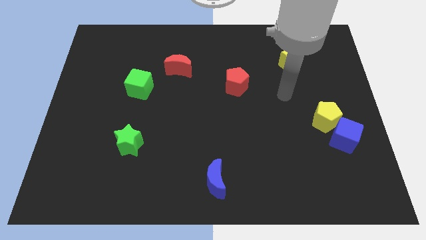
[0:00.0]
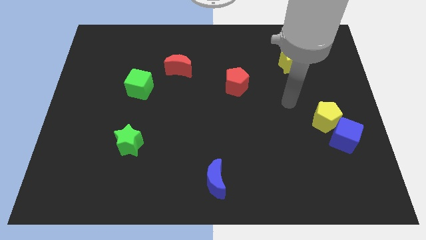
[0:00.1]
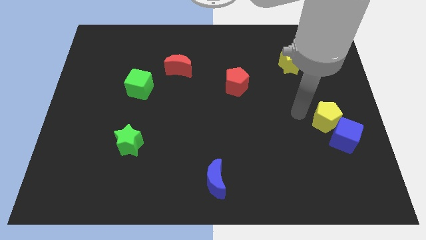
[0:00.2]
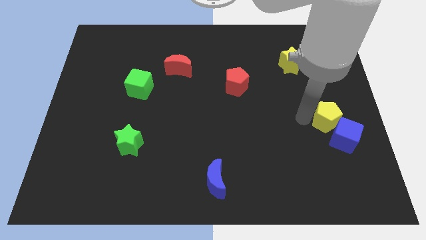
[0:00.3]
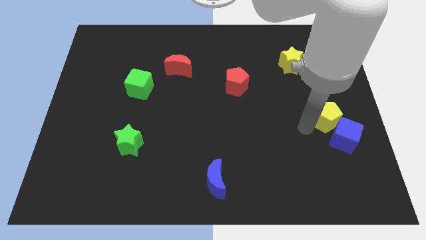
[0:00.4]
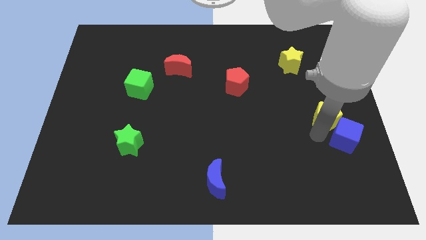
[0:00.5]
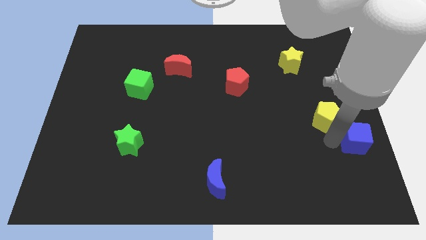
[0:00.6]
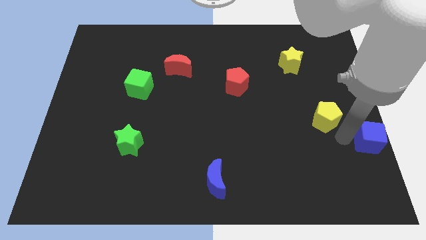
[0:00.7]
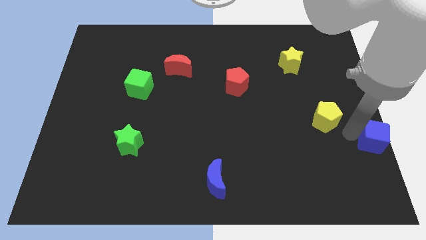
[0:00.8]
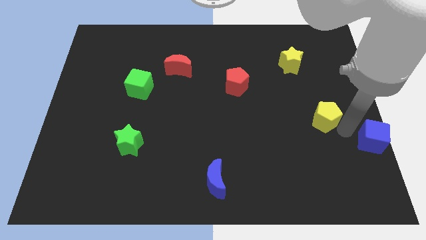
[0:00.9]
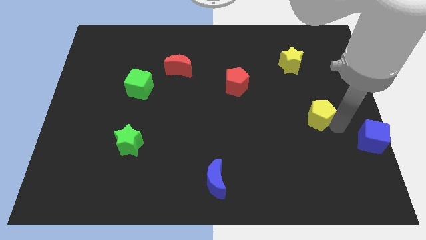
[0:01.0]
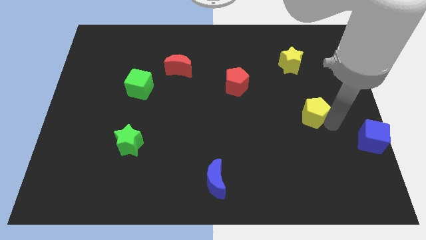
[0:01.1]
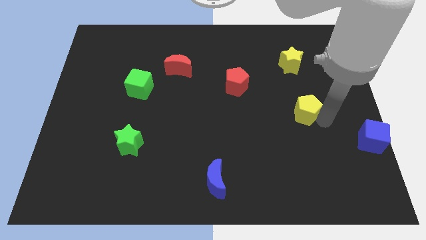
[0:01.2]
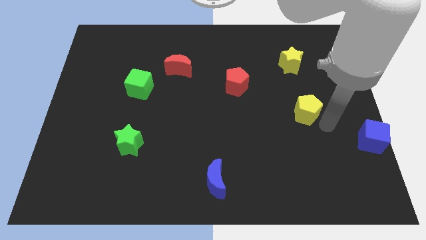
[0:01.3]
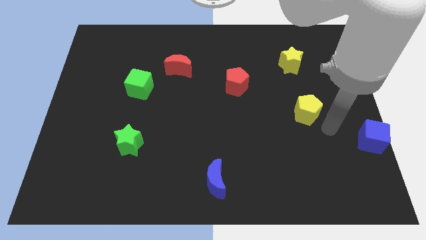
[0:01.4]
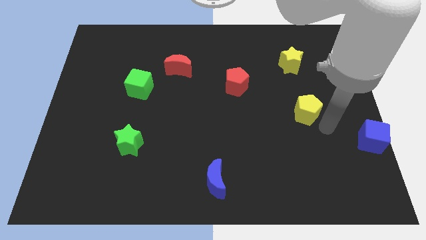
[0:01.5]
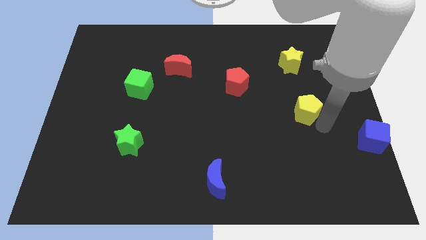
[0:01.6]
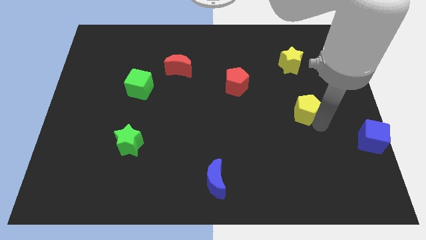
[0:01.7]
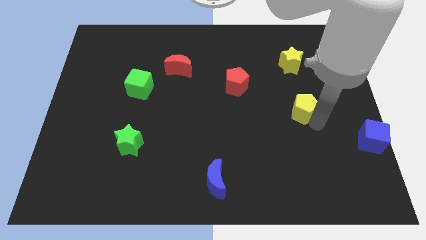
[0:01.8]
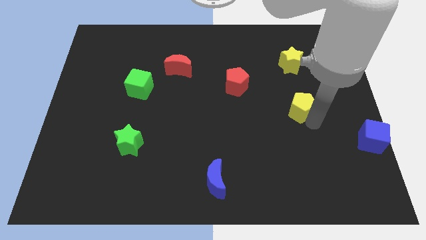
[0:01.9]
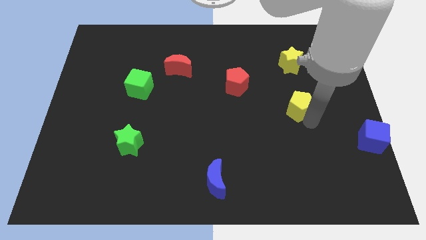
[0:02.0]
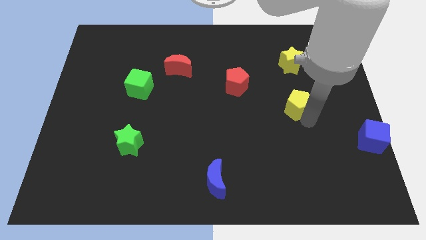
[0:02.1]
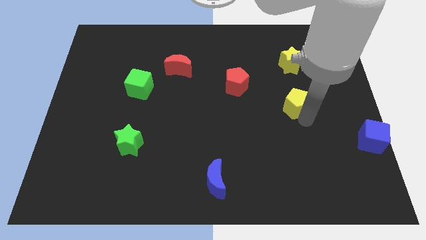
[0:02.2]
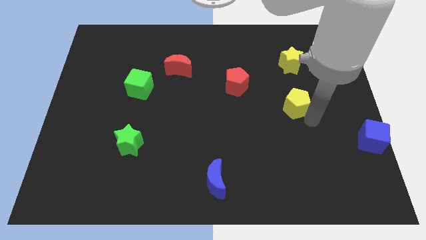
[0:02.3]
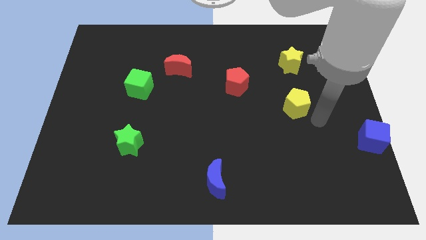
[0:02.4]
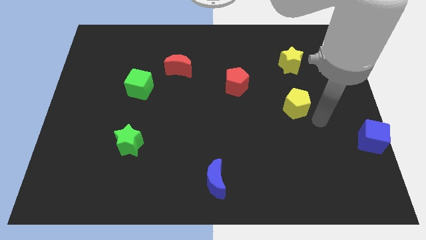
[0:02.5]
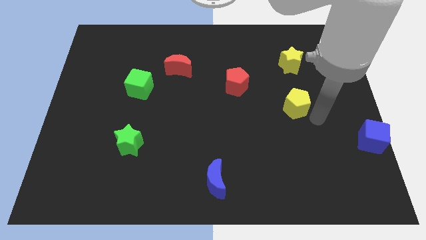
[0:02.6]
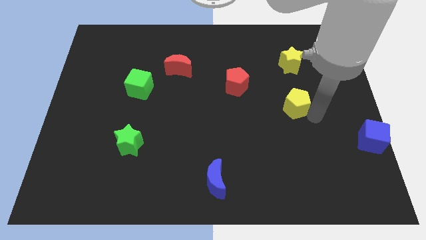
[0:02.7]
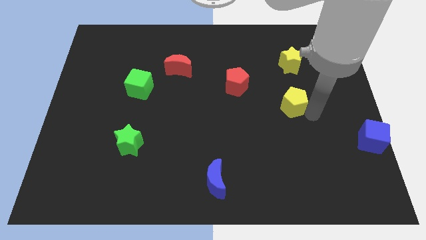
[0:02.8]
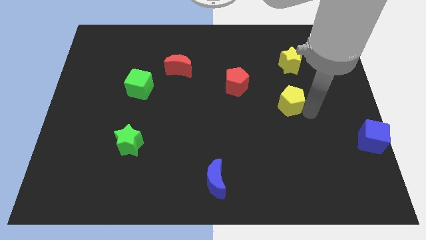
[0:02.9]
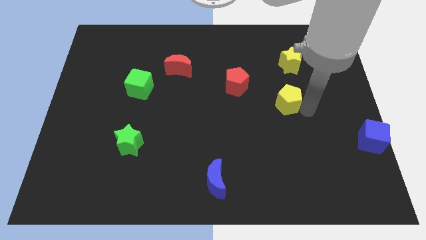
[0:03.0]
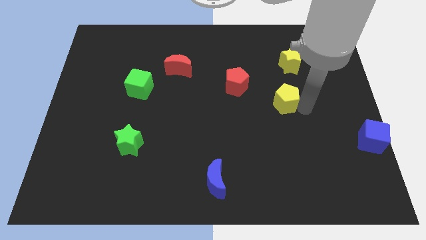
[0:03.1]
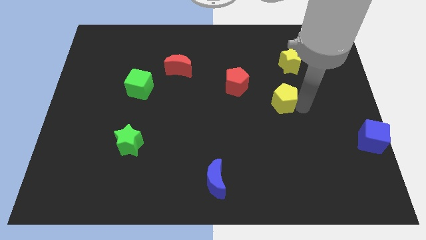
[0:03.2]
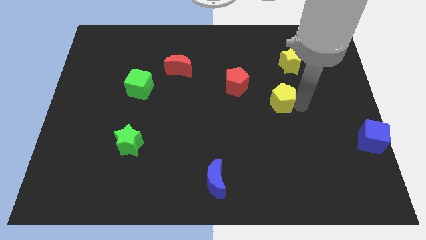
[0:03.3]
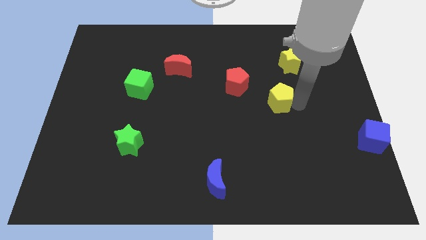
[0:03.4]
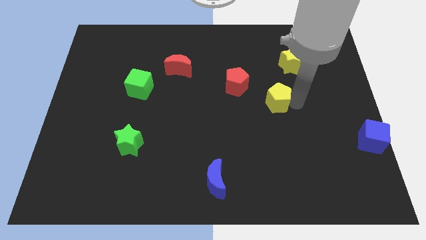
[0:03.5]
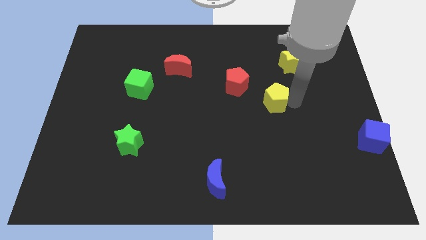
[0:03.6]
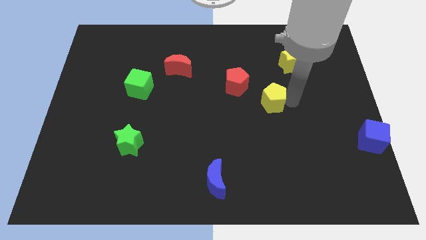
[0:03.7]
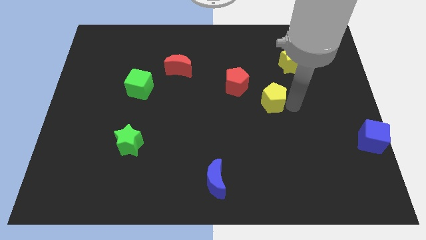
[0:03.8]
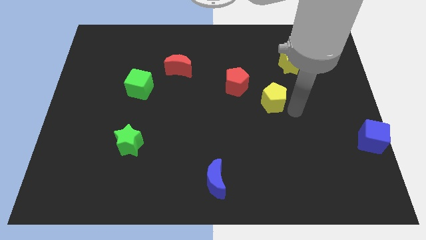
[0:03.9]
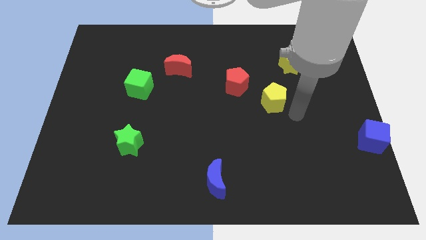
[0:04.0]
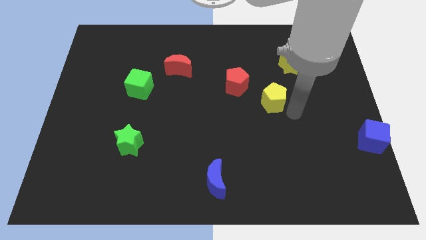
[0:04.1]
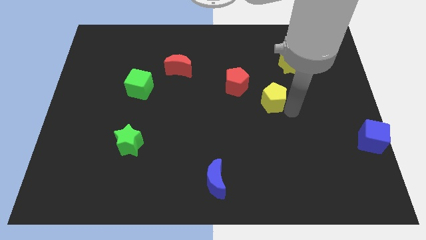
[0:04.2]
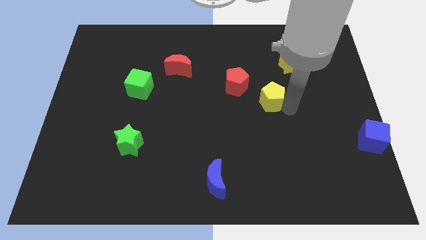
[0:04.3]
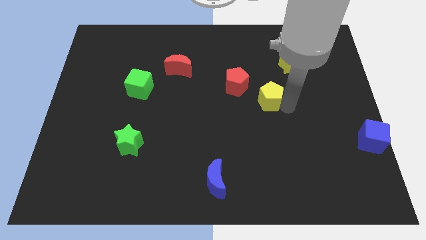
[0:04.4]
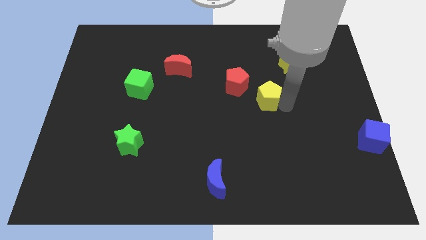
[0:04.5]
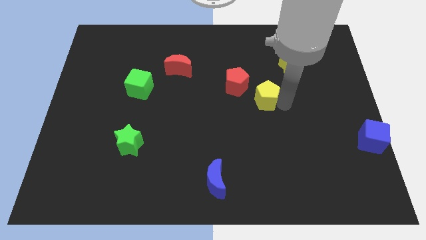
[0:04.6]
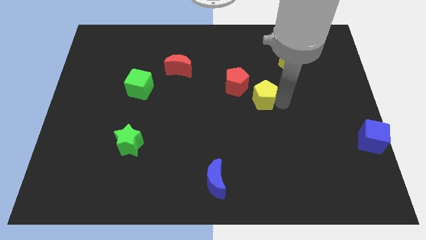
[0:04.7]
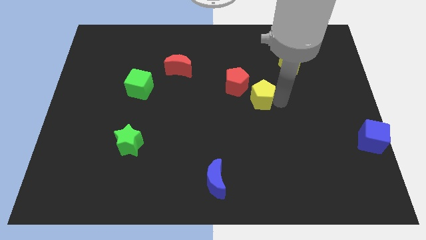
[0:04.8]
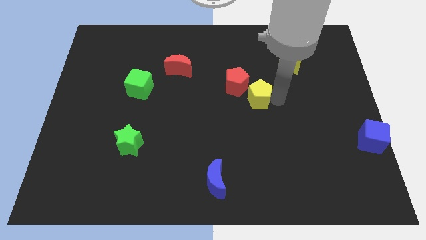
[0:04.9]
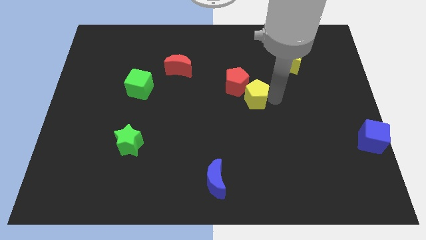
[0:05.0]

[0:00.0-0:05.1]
move the yellow pentagon close to the red pentagon

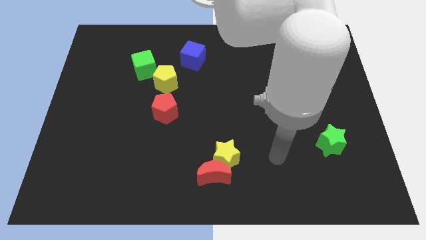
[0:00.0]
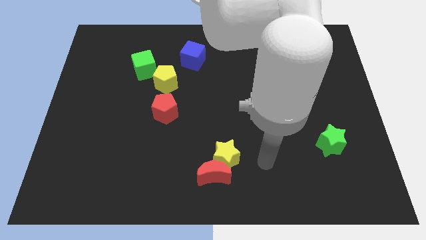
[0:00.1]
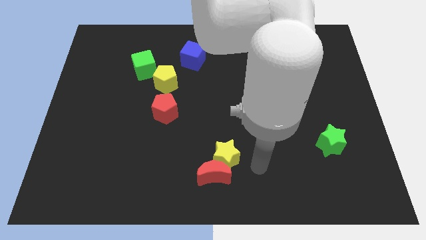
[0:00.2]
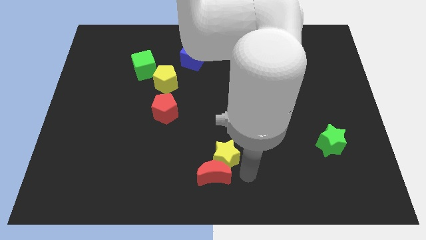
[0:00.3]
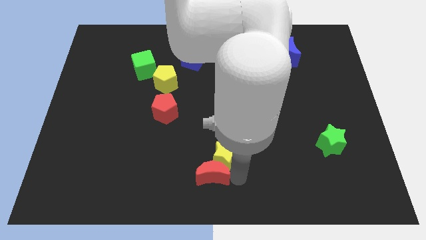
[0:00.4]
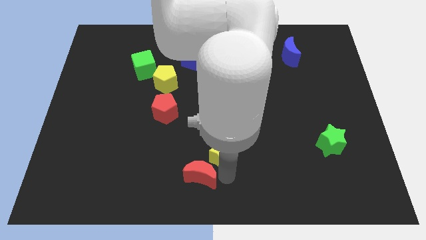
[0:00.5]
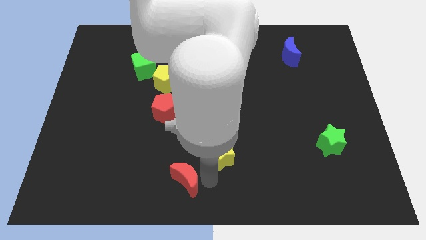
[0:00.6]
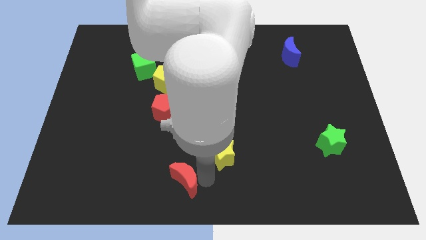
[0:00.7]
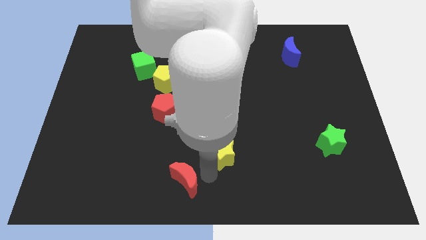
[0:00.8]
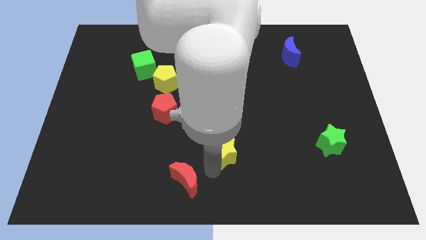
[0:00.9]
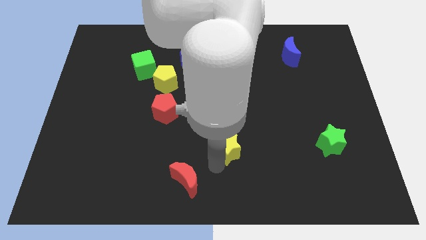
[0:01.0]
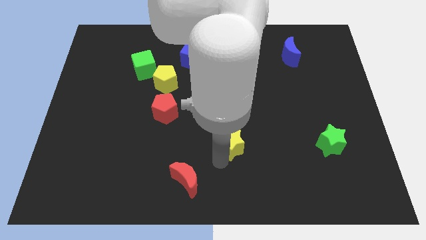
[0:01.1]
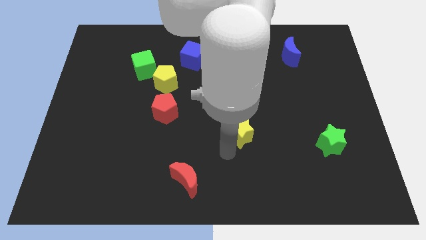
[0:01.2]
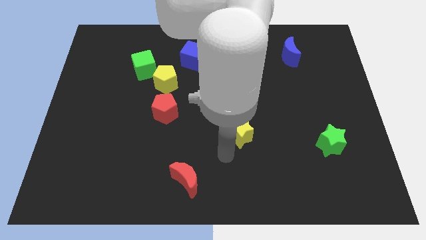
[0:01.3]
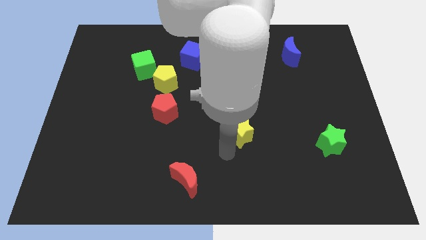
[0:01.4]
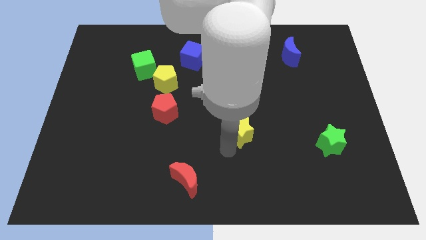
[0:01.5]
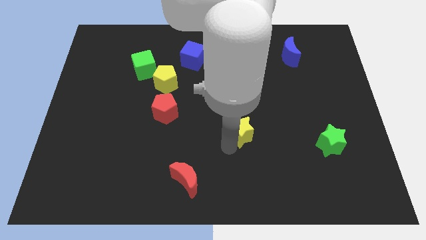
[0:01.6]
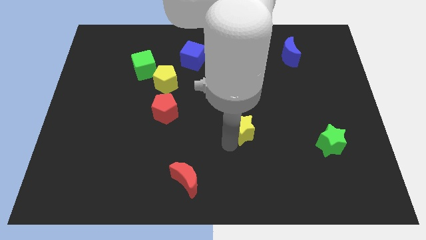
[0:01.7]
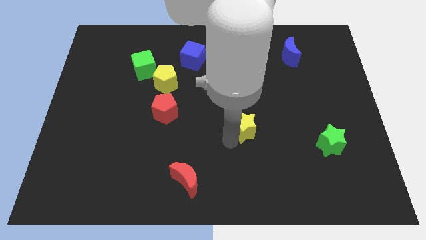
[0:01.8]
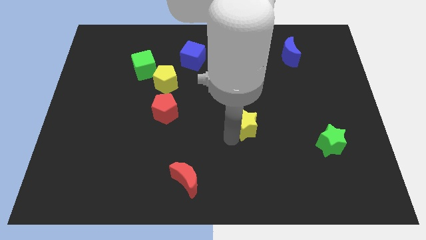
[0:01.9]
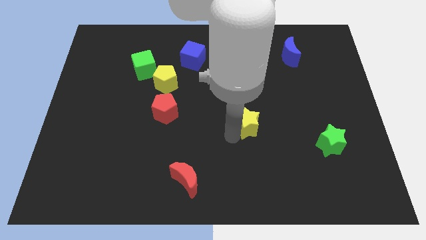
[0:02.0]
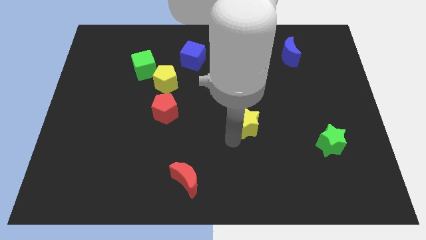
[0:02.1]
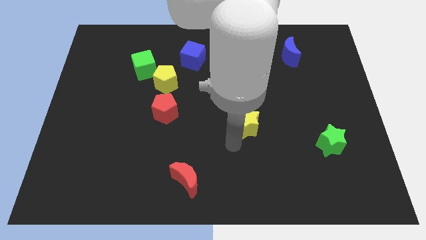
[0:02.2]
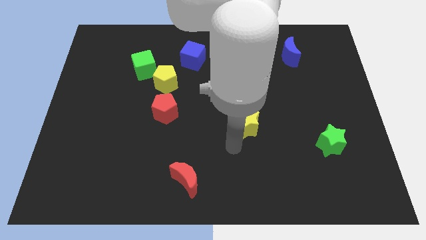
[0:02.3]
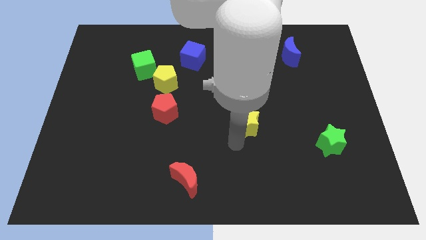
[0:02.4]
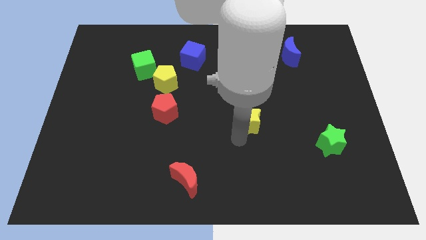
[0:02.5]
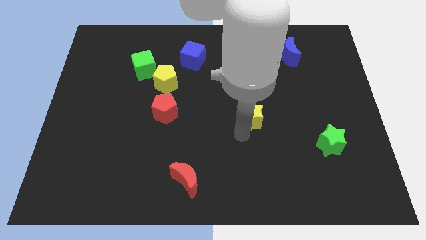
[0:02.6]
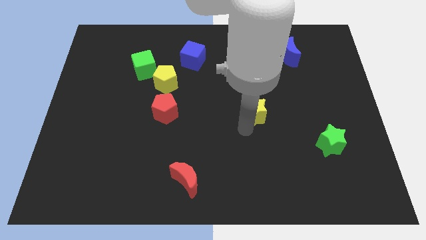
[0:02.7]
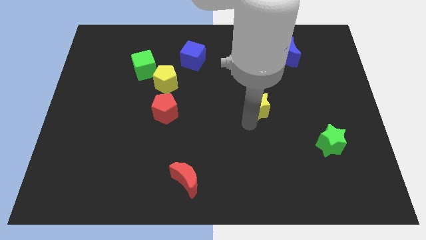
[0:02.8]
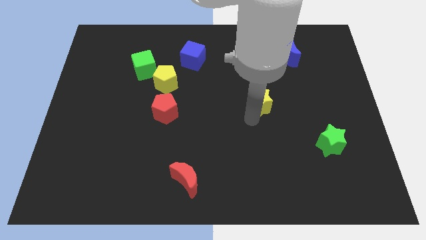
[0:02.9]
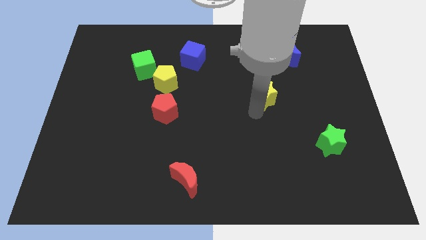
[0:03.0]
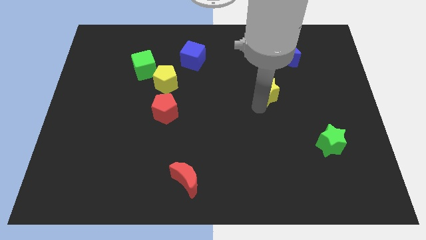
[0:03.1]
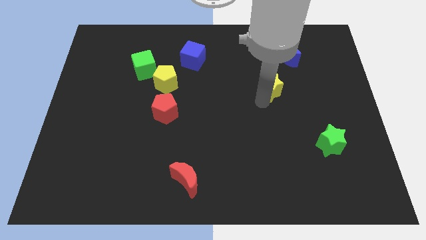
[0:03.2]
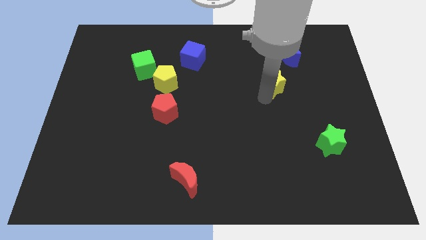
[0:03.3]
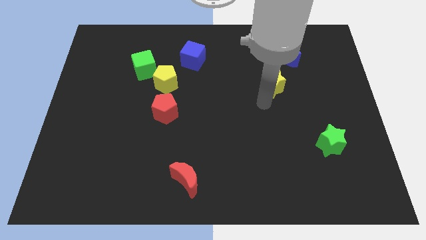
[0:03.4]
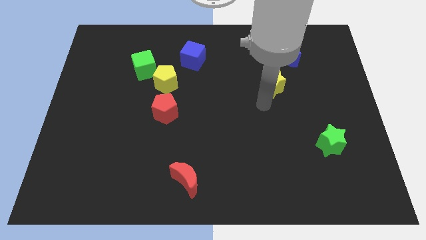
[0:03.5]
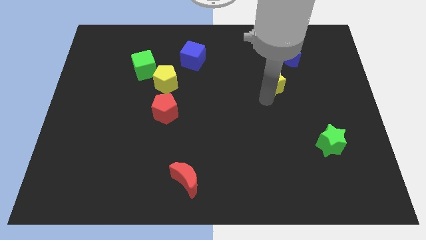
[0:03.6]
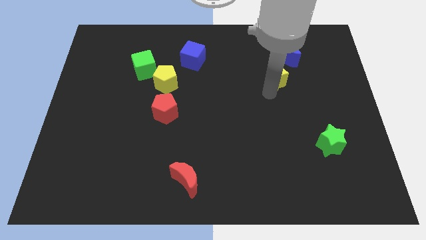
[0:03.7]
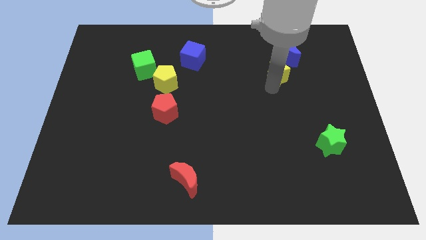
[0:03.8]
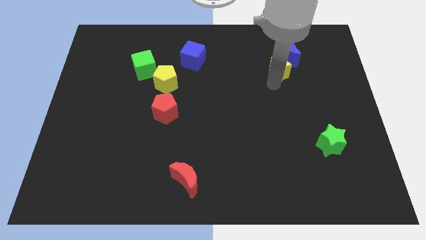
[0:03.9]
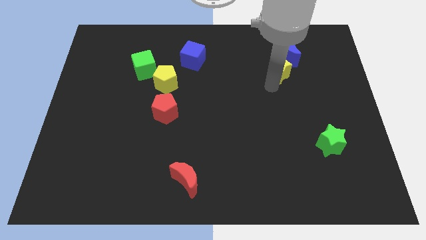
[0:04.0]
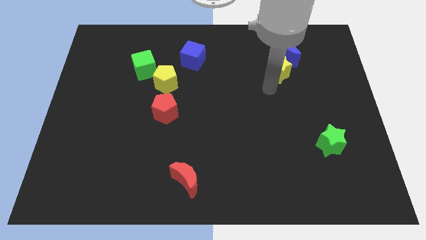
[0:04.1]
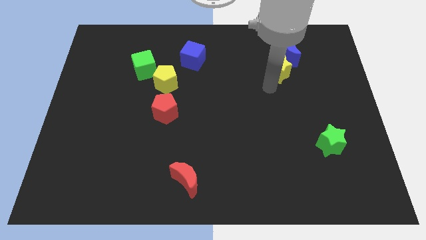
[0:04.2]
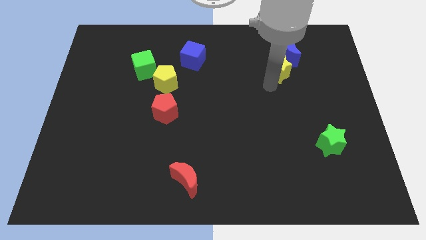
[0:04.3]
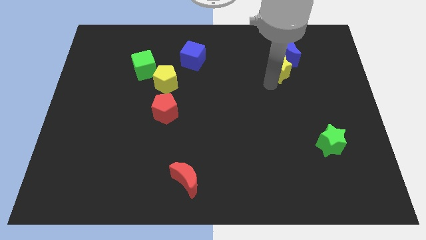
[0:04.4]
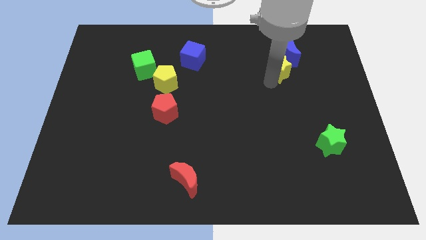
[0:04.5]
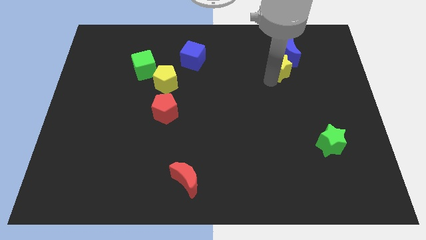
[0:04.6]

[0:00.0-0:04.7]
move the yellow star to the blue moon
